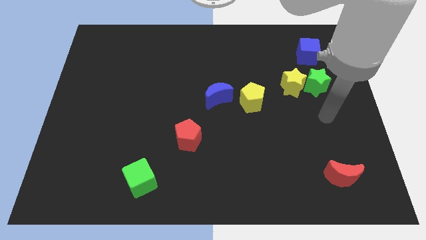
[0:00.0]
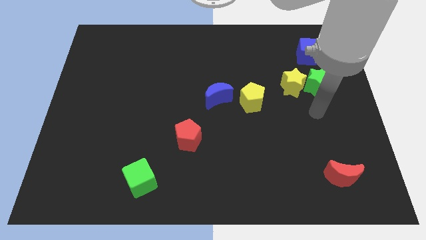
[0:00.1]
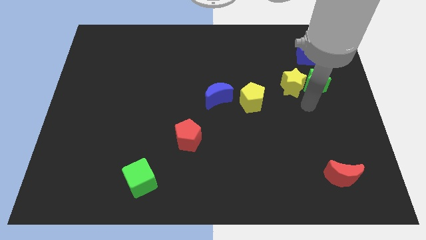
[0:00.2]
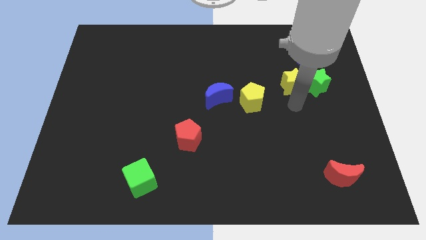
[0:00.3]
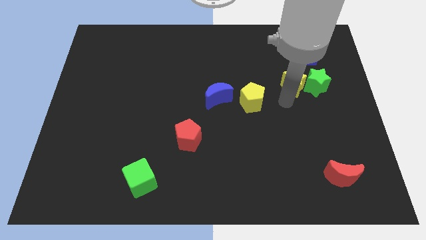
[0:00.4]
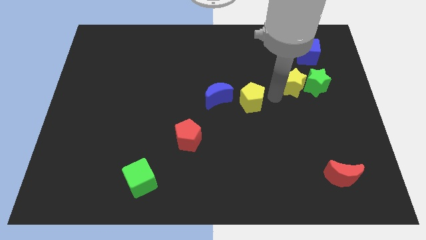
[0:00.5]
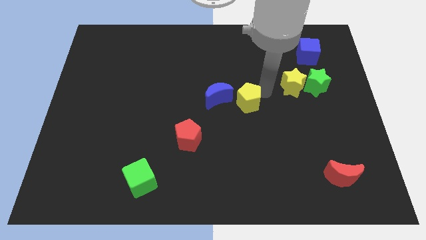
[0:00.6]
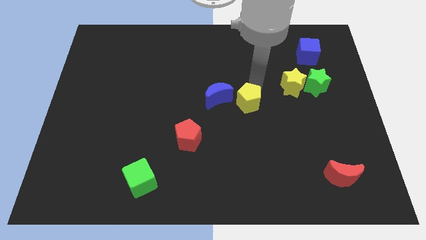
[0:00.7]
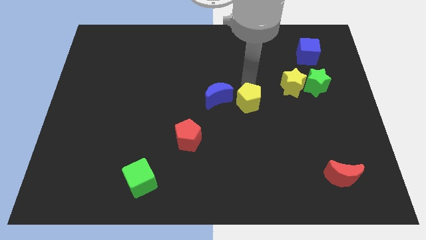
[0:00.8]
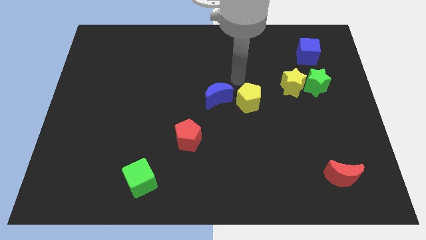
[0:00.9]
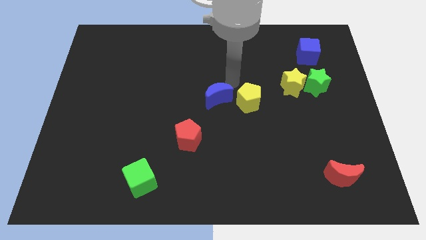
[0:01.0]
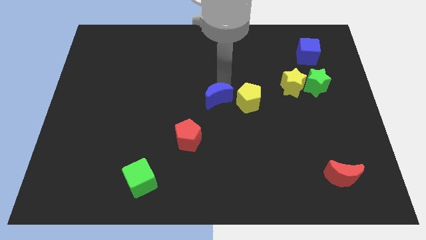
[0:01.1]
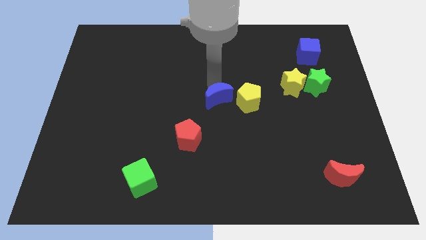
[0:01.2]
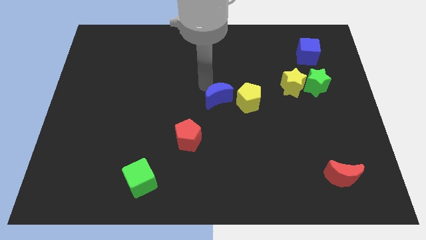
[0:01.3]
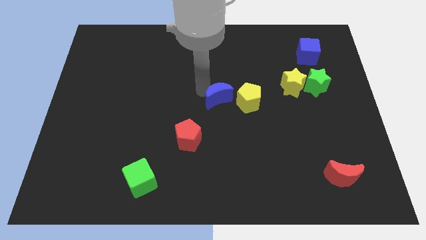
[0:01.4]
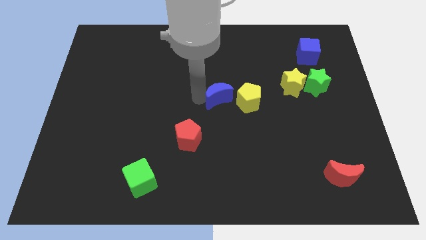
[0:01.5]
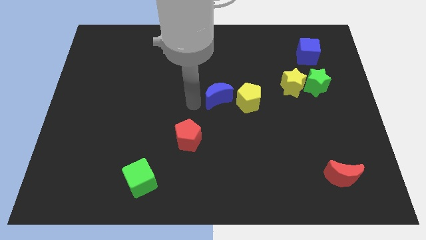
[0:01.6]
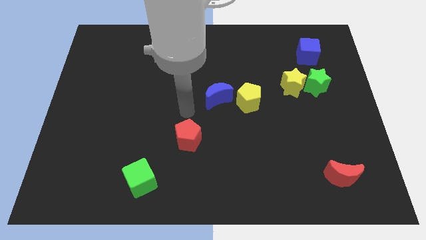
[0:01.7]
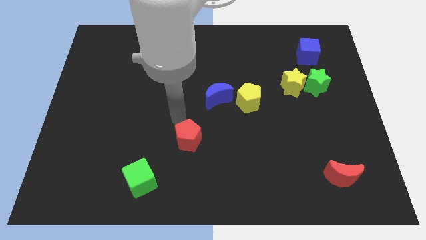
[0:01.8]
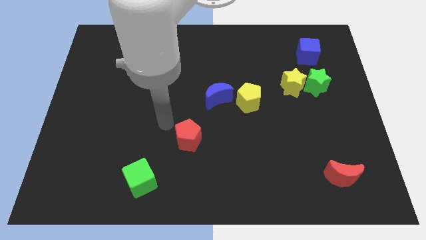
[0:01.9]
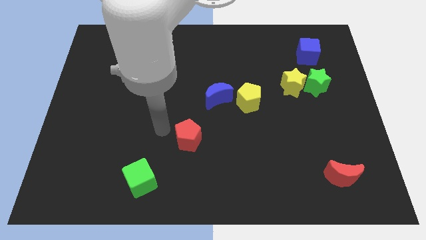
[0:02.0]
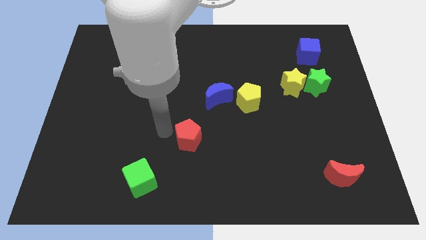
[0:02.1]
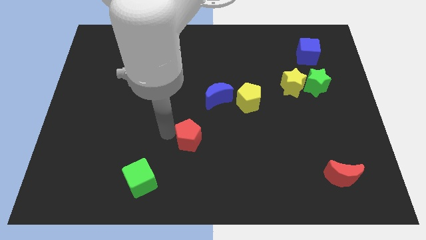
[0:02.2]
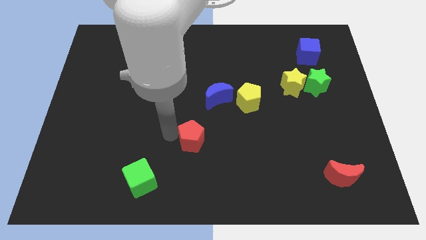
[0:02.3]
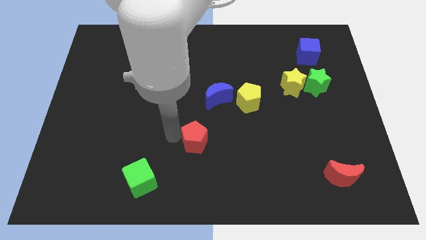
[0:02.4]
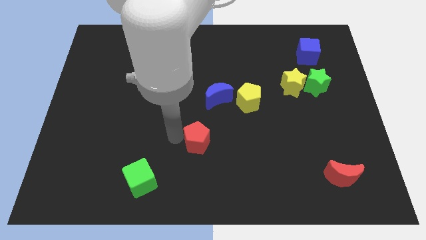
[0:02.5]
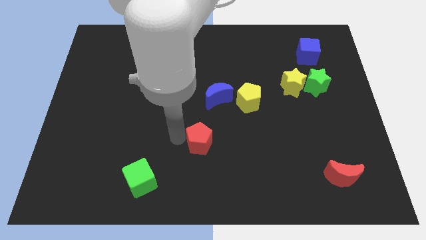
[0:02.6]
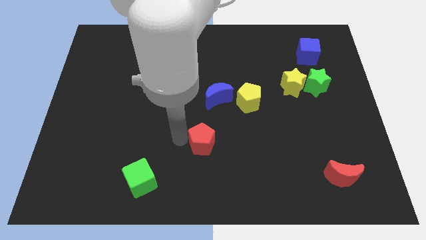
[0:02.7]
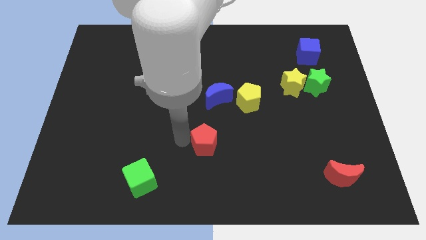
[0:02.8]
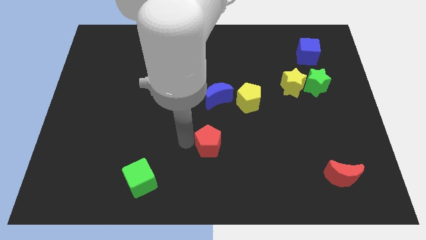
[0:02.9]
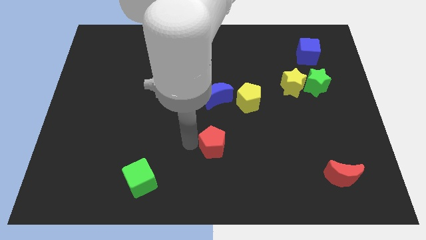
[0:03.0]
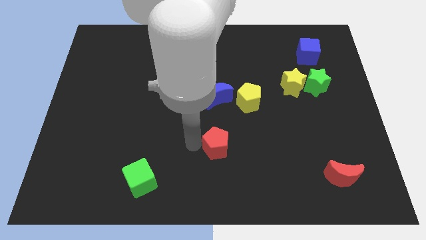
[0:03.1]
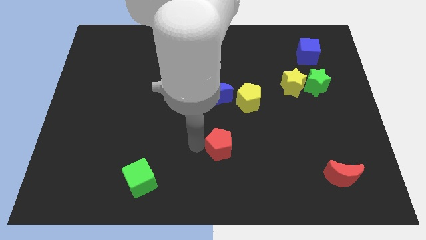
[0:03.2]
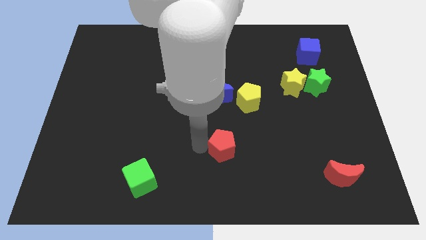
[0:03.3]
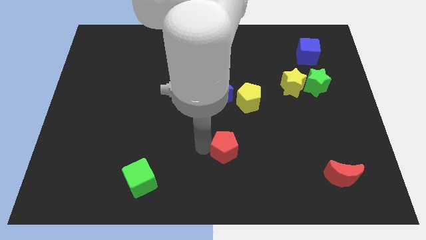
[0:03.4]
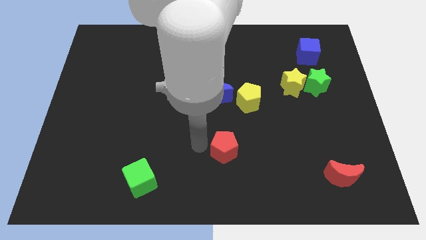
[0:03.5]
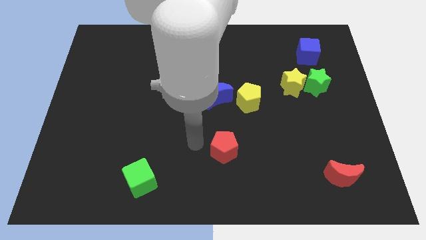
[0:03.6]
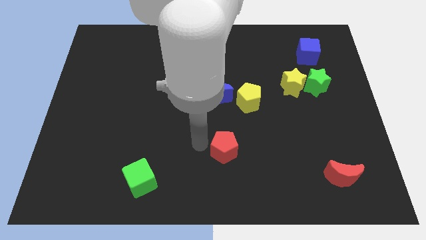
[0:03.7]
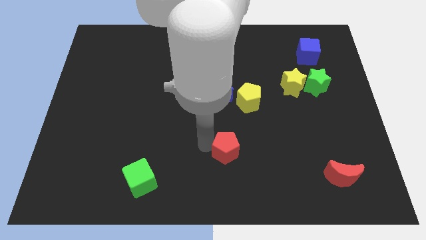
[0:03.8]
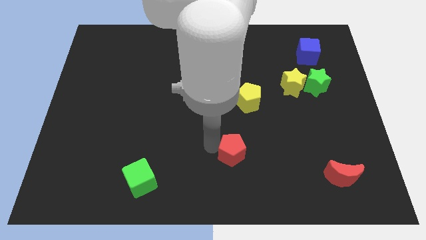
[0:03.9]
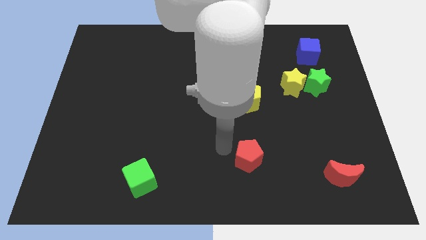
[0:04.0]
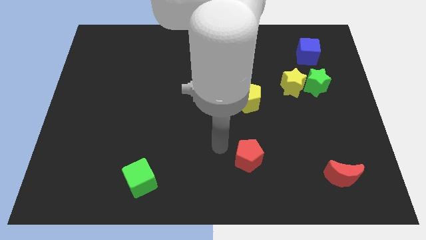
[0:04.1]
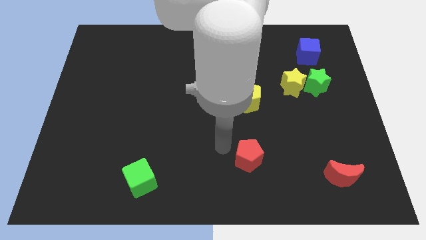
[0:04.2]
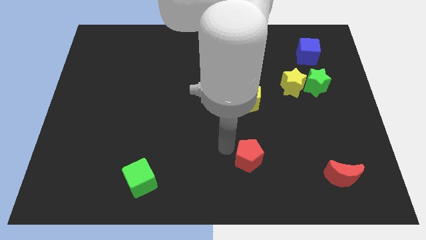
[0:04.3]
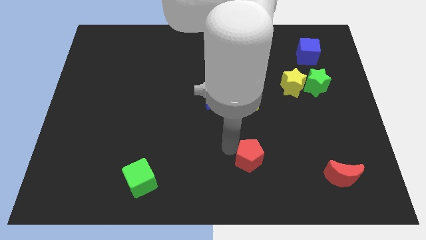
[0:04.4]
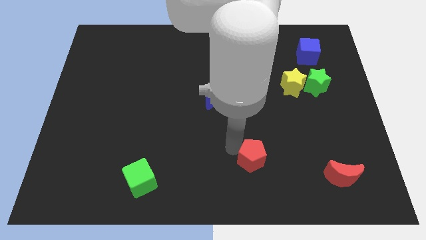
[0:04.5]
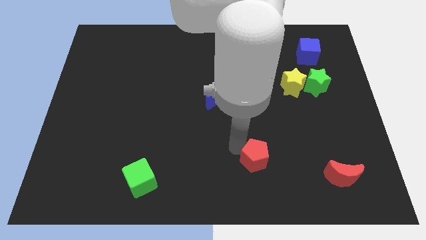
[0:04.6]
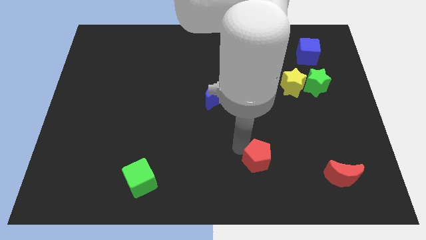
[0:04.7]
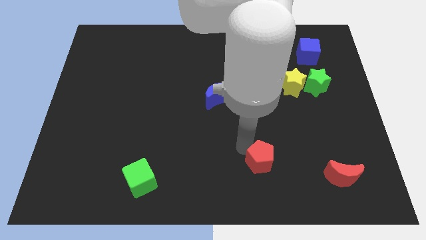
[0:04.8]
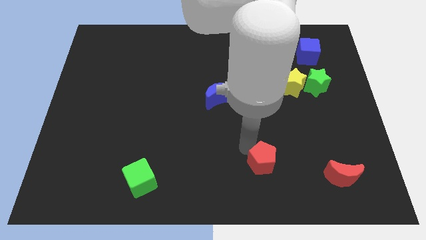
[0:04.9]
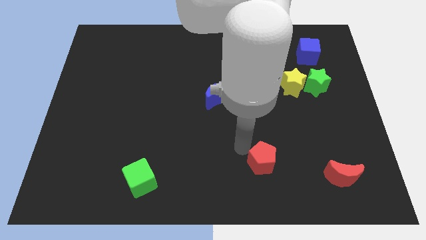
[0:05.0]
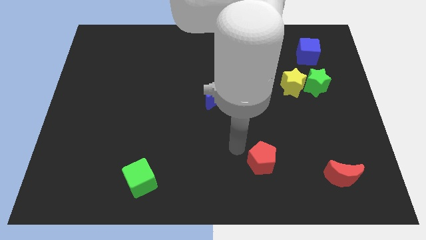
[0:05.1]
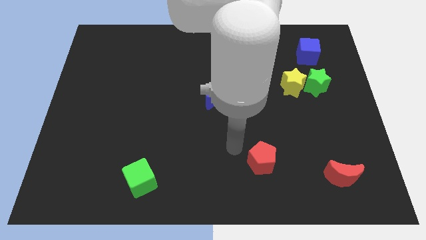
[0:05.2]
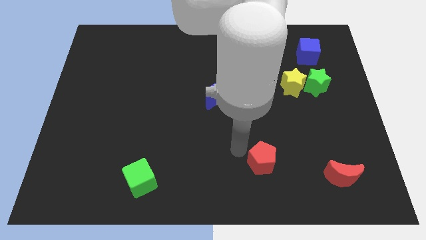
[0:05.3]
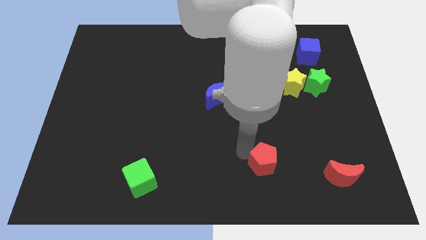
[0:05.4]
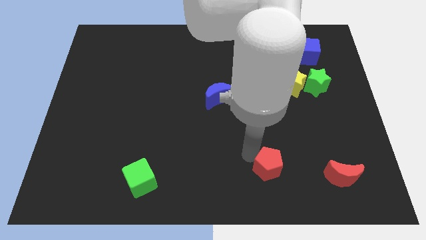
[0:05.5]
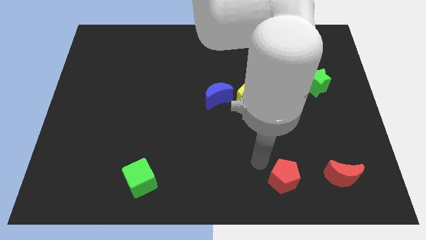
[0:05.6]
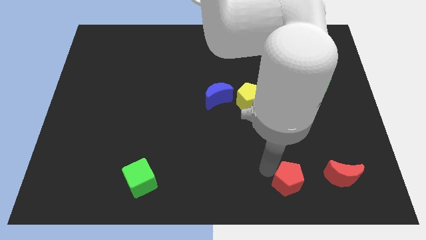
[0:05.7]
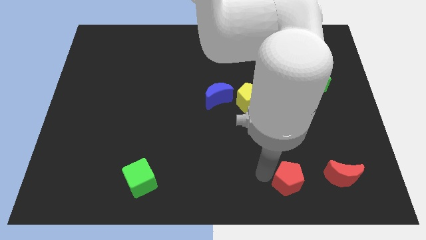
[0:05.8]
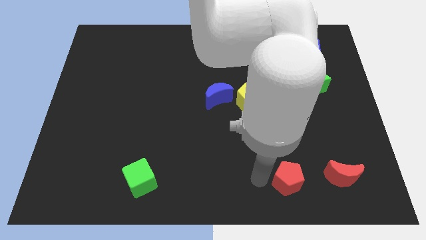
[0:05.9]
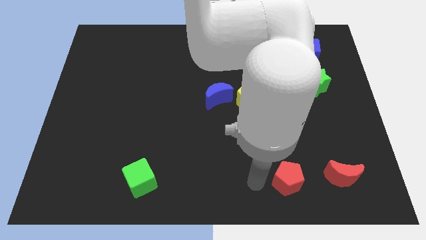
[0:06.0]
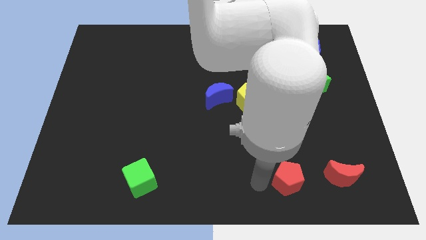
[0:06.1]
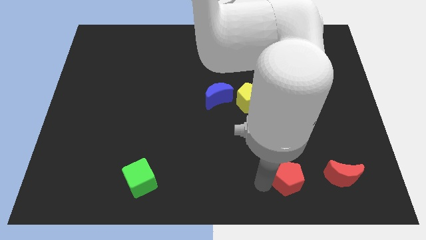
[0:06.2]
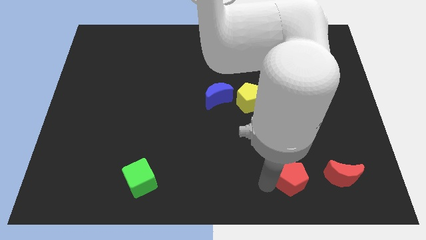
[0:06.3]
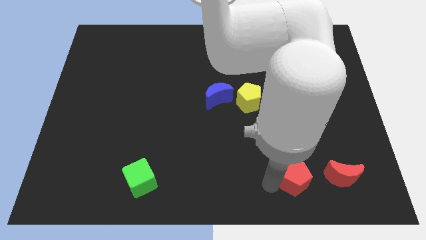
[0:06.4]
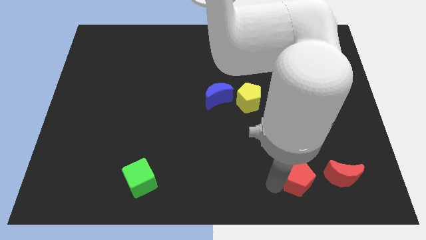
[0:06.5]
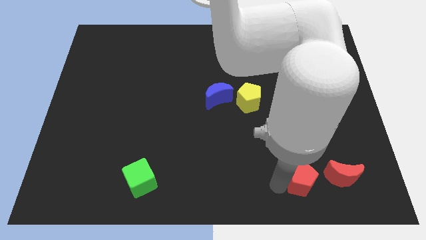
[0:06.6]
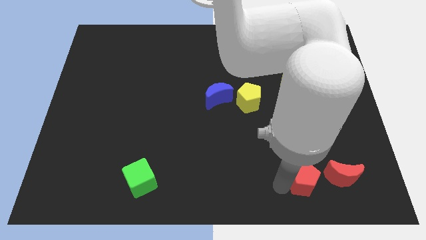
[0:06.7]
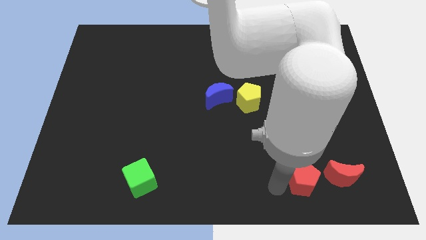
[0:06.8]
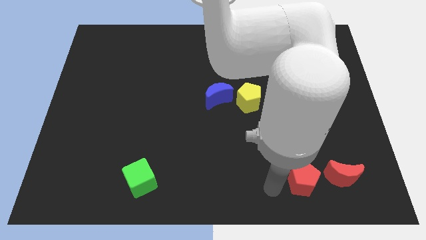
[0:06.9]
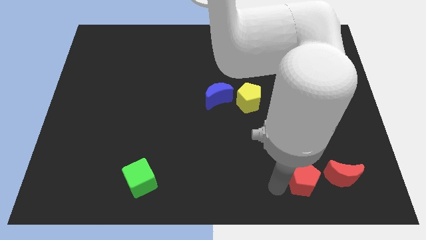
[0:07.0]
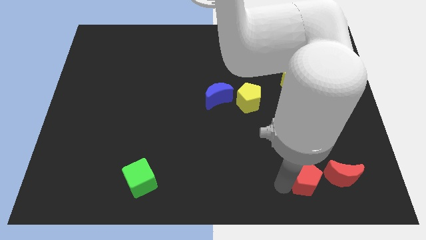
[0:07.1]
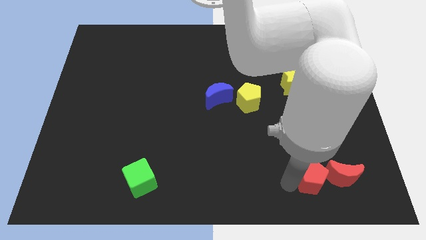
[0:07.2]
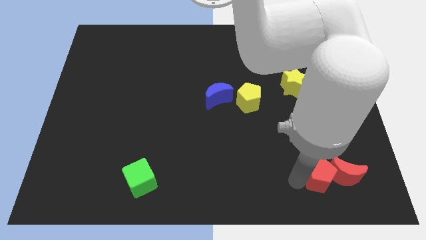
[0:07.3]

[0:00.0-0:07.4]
move the red pentagon towards the red moon

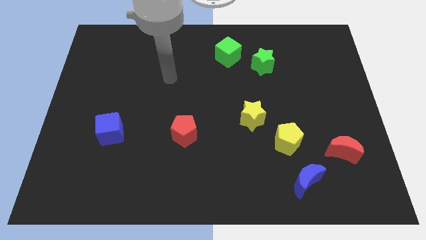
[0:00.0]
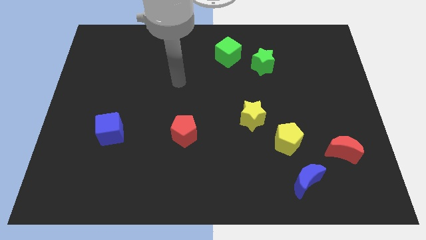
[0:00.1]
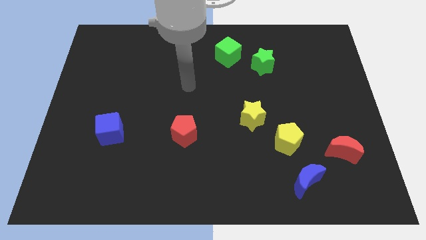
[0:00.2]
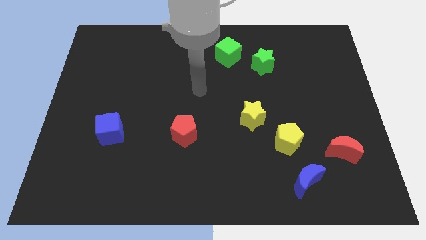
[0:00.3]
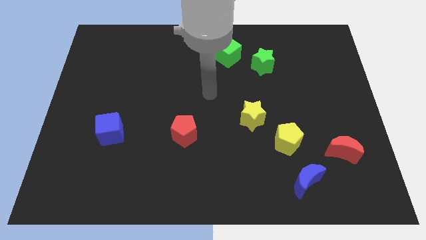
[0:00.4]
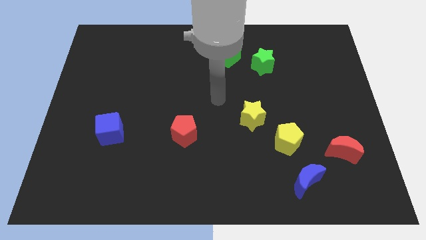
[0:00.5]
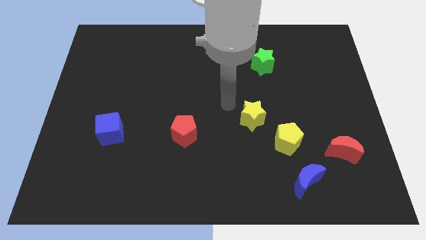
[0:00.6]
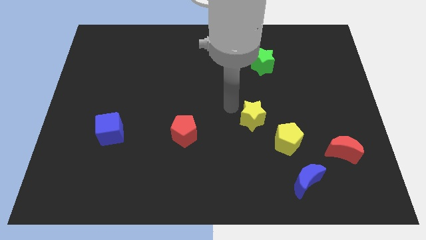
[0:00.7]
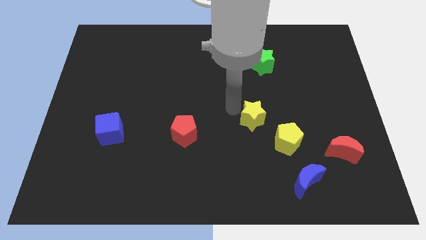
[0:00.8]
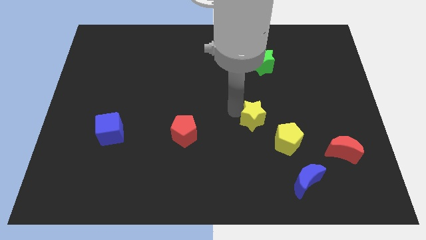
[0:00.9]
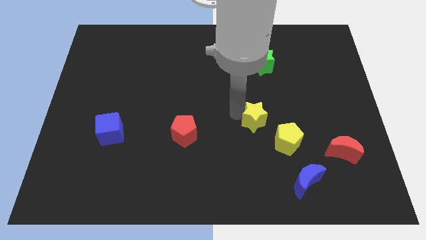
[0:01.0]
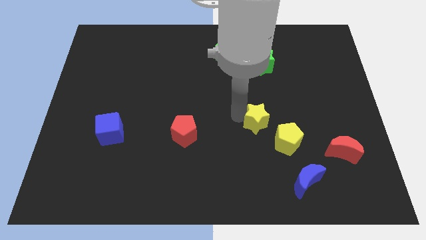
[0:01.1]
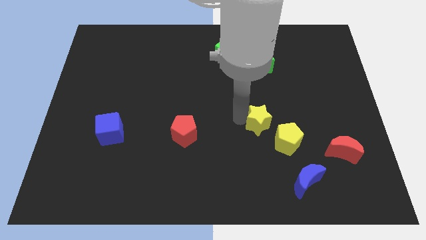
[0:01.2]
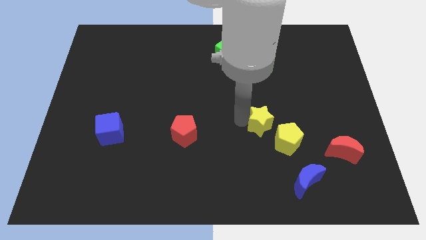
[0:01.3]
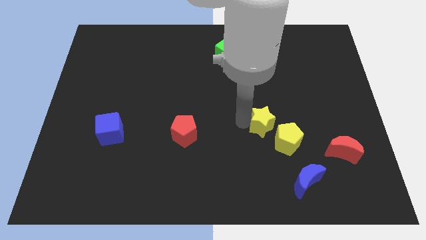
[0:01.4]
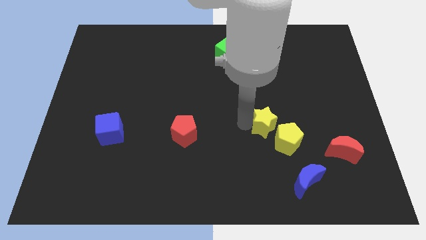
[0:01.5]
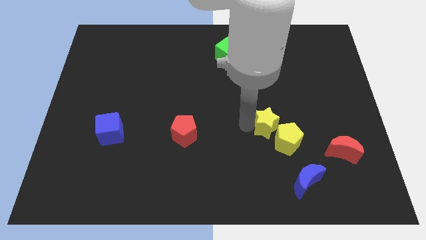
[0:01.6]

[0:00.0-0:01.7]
move the yellow star to the yellow pentagon
